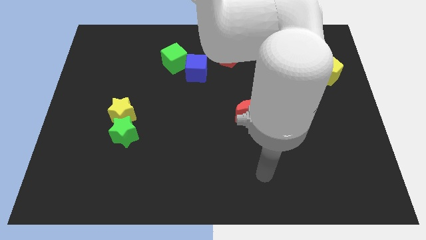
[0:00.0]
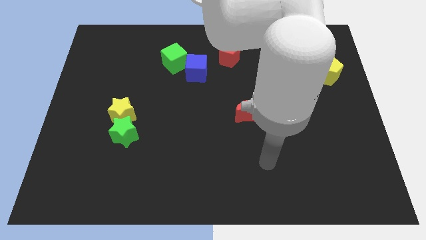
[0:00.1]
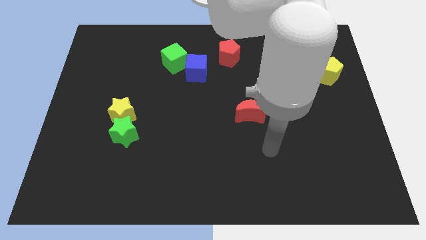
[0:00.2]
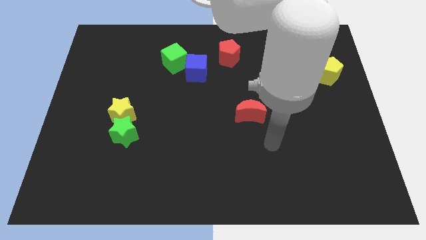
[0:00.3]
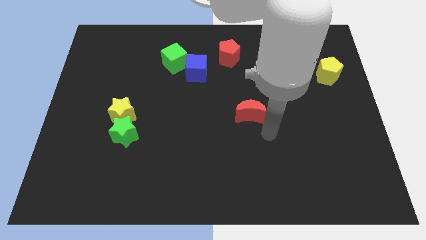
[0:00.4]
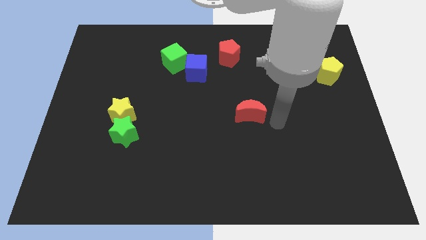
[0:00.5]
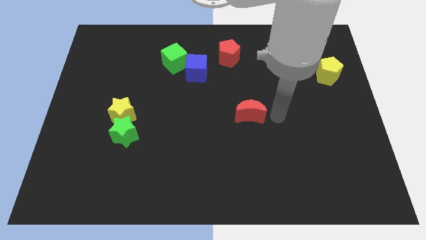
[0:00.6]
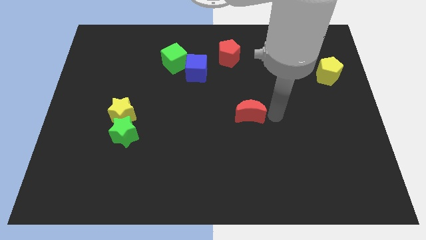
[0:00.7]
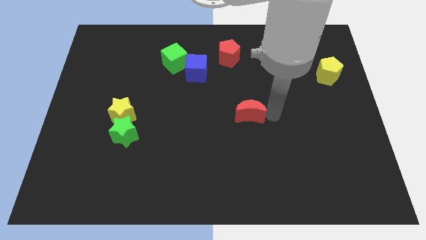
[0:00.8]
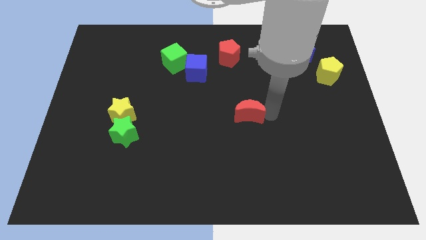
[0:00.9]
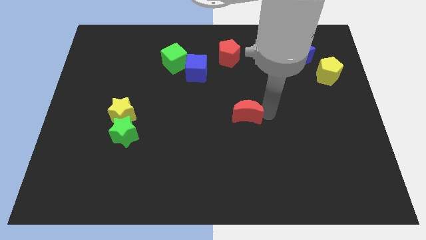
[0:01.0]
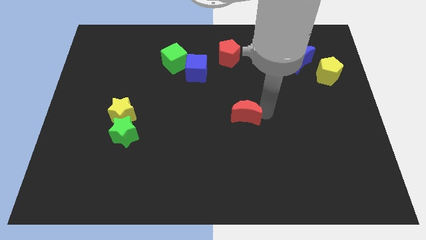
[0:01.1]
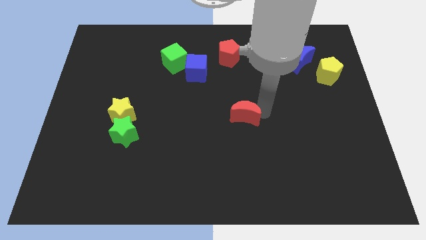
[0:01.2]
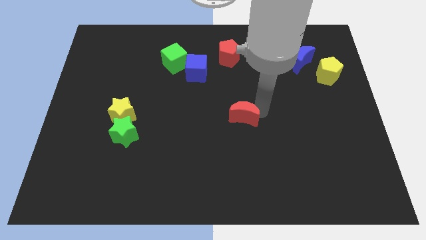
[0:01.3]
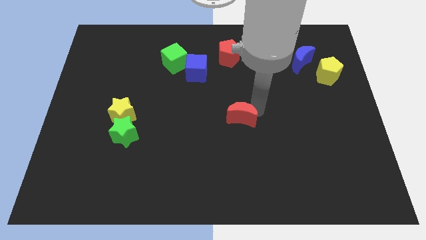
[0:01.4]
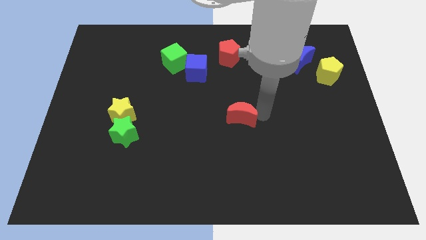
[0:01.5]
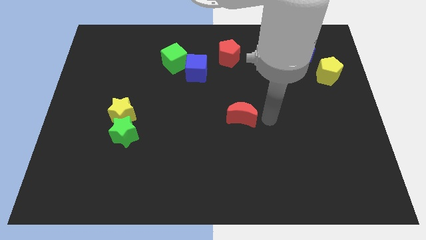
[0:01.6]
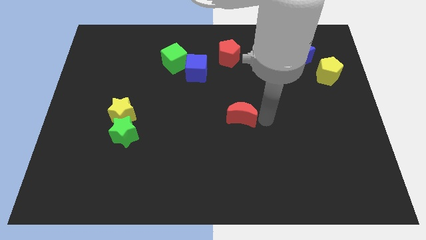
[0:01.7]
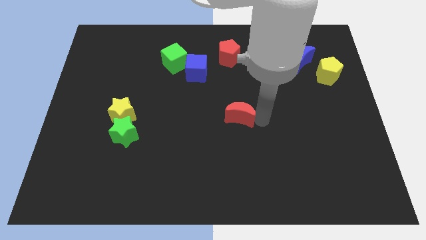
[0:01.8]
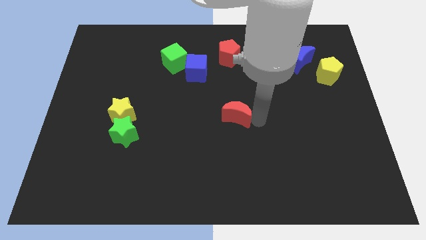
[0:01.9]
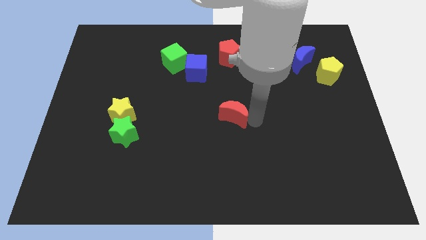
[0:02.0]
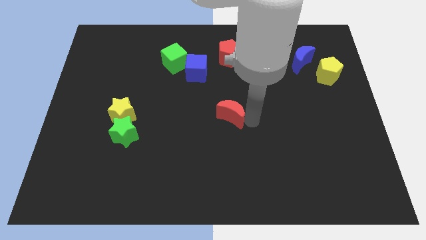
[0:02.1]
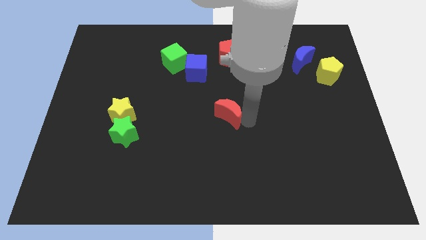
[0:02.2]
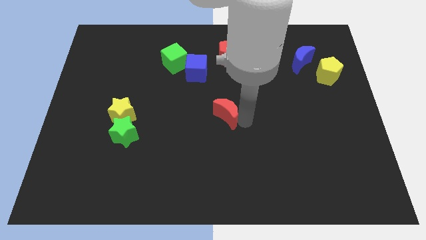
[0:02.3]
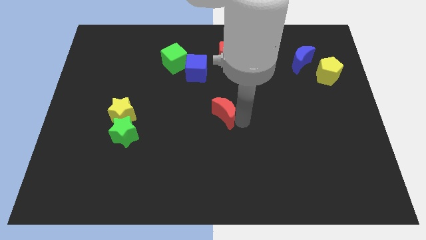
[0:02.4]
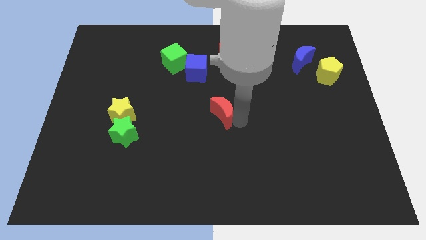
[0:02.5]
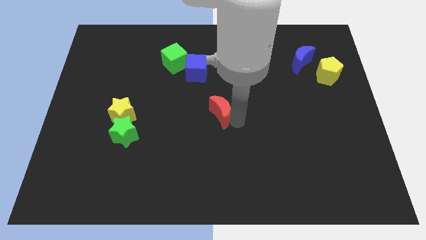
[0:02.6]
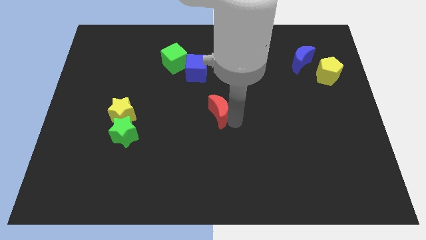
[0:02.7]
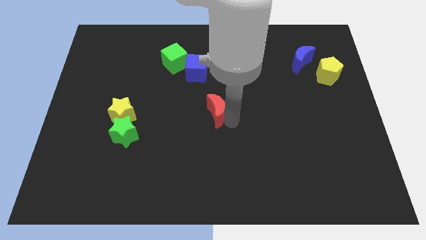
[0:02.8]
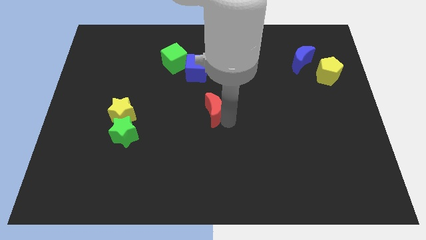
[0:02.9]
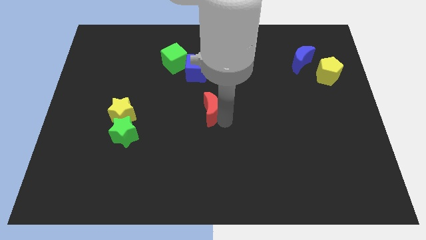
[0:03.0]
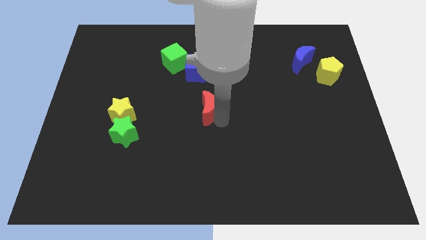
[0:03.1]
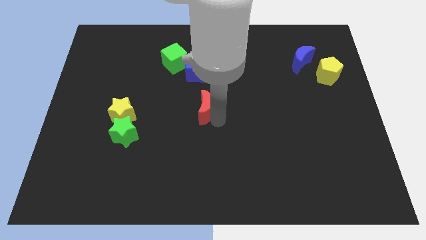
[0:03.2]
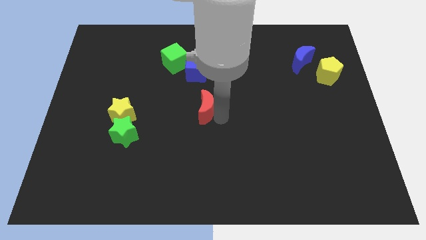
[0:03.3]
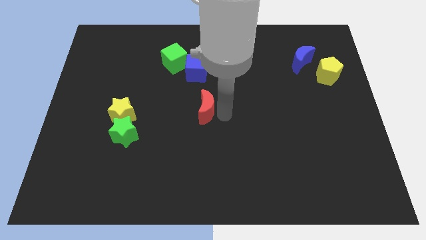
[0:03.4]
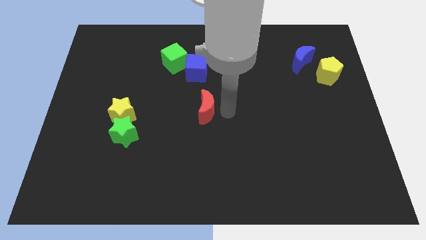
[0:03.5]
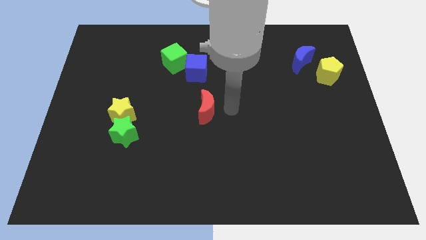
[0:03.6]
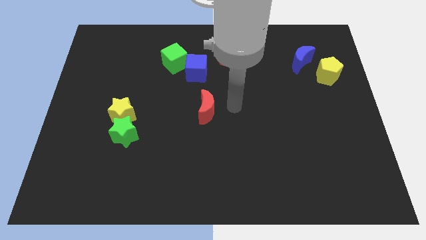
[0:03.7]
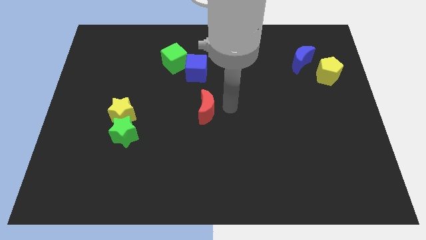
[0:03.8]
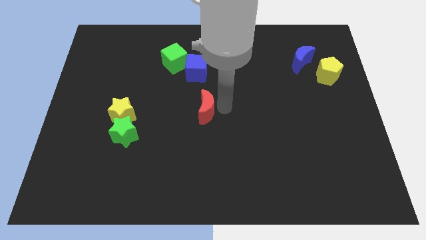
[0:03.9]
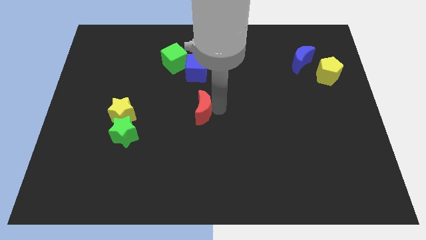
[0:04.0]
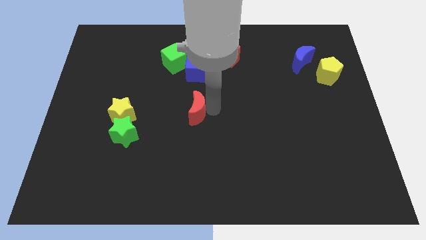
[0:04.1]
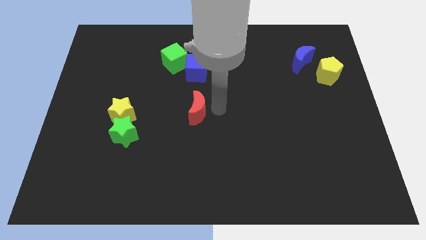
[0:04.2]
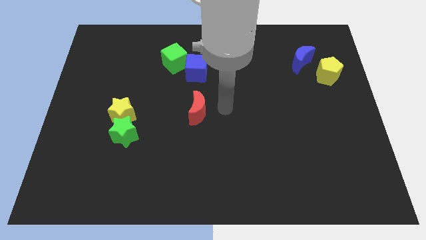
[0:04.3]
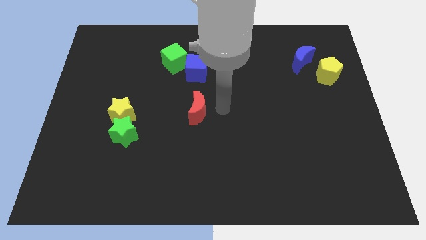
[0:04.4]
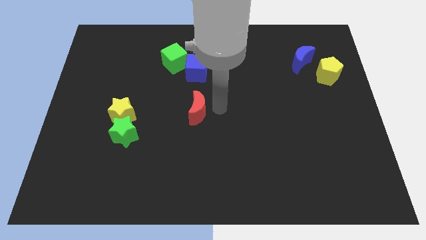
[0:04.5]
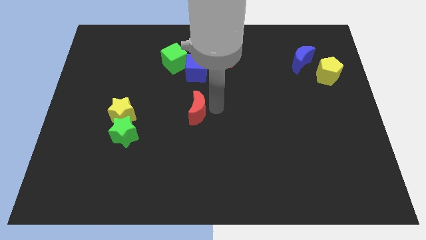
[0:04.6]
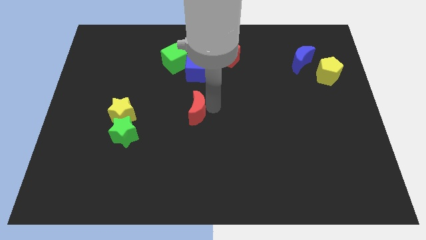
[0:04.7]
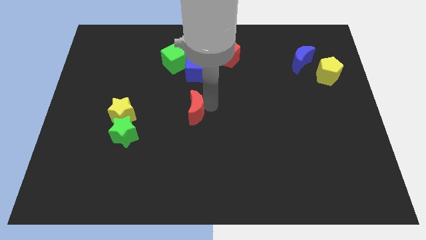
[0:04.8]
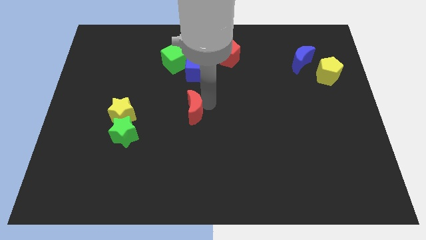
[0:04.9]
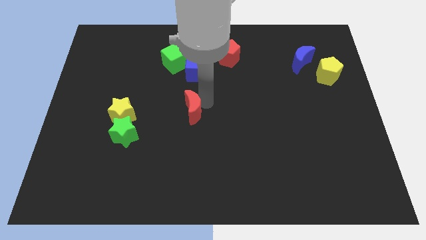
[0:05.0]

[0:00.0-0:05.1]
move the red moon right of the yellow star

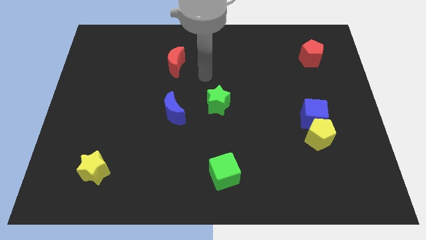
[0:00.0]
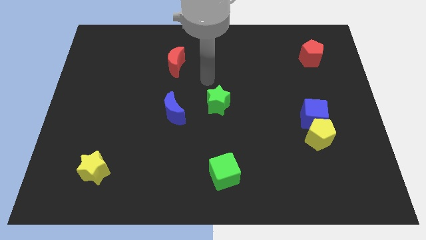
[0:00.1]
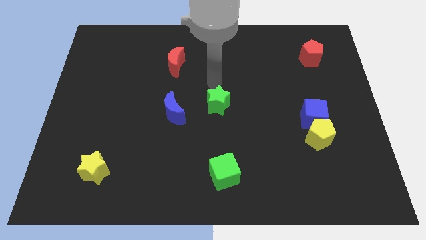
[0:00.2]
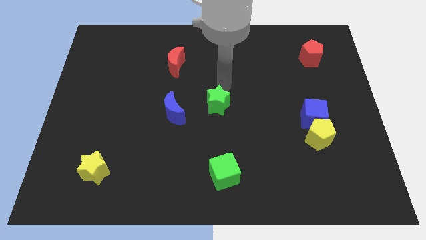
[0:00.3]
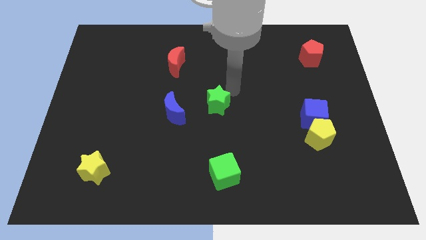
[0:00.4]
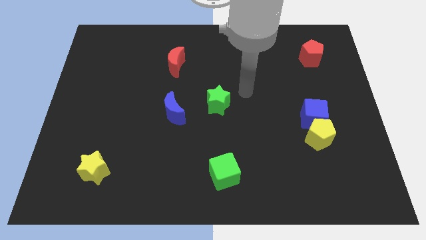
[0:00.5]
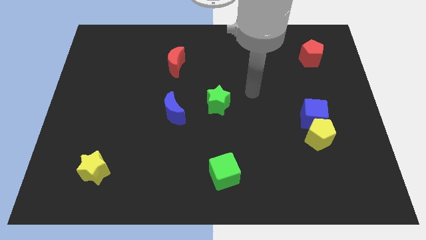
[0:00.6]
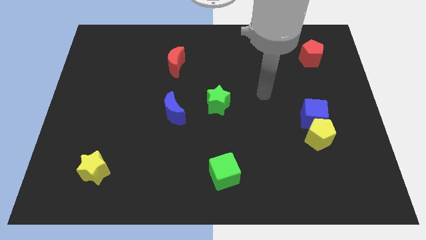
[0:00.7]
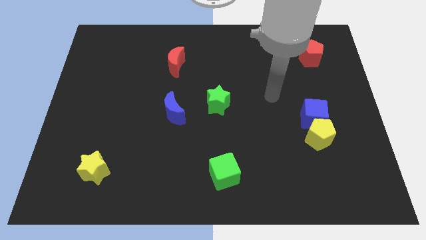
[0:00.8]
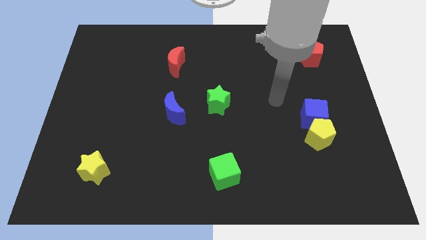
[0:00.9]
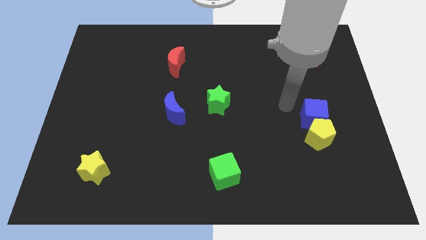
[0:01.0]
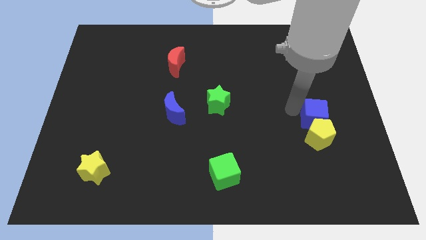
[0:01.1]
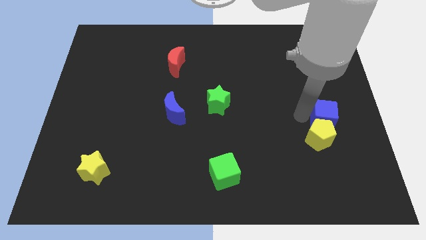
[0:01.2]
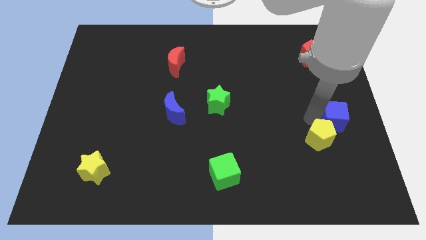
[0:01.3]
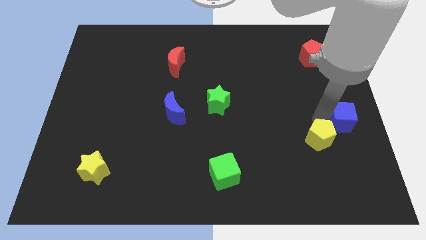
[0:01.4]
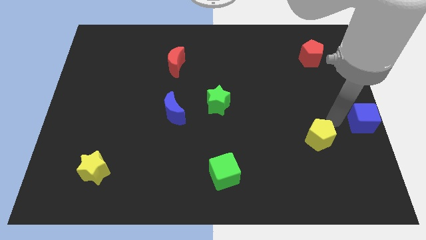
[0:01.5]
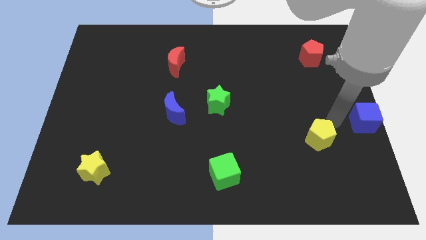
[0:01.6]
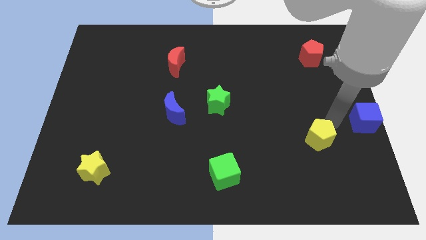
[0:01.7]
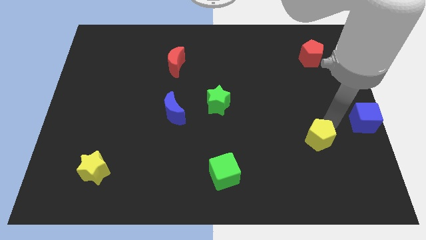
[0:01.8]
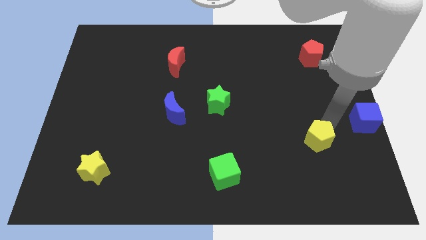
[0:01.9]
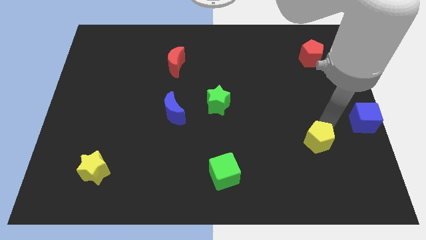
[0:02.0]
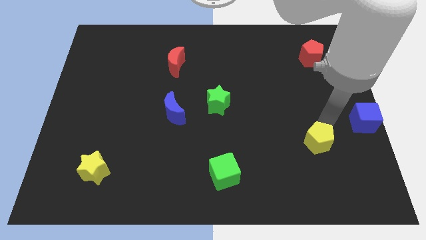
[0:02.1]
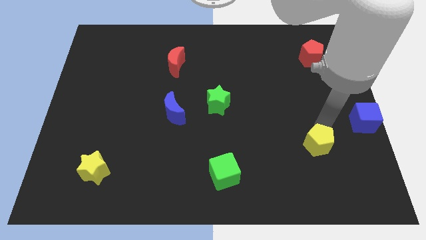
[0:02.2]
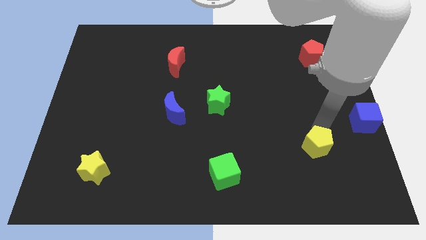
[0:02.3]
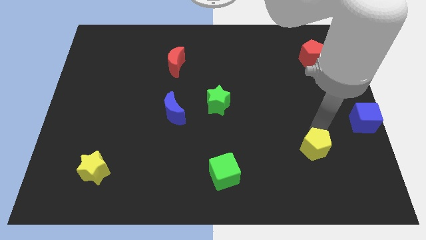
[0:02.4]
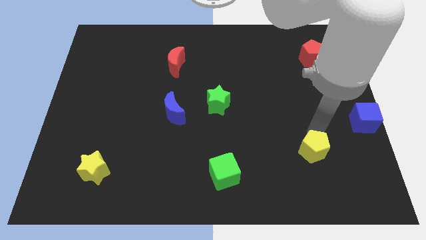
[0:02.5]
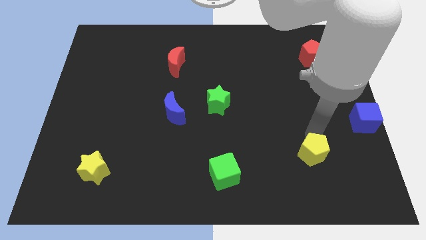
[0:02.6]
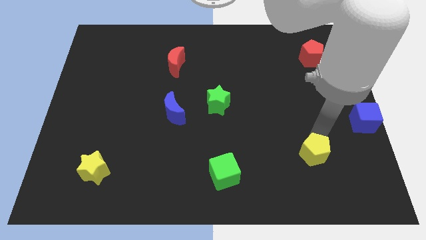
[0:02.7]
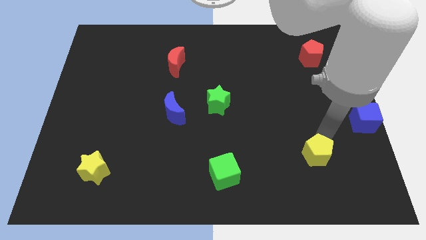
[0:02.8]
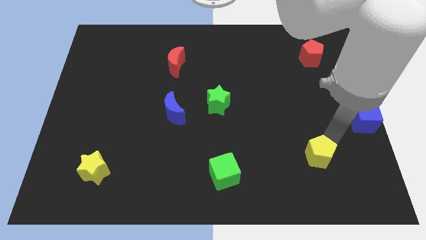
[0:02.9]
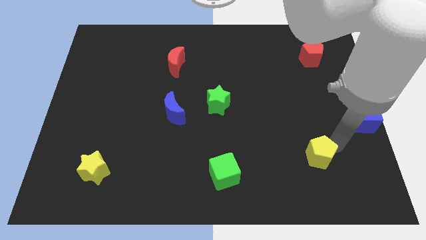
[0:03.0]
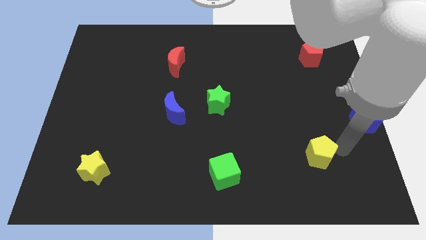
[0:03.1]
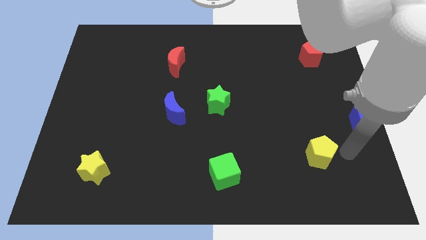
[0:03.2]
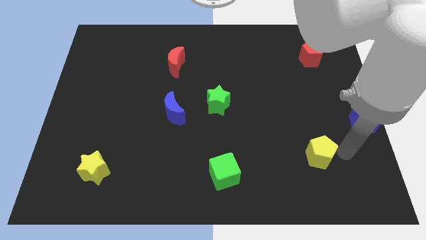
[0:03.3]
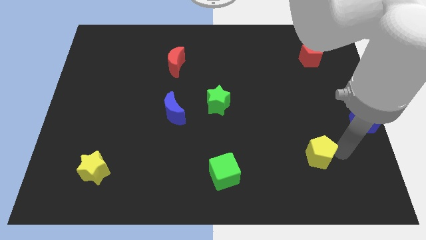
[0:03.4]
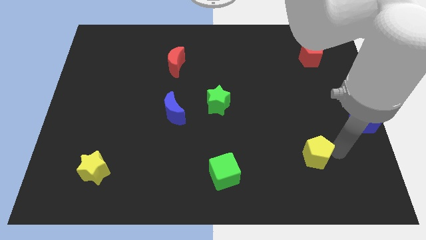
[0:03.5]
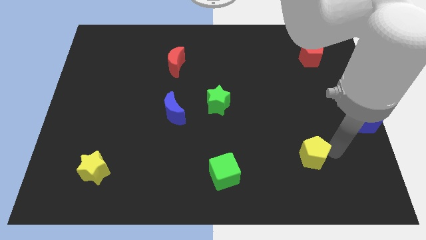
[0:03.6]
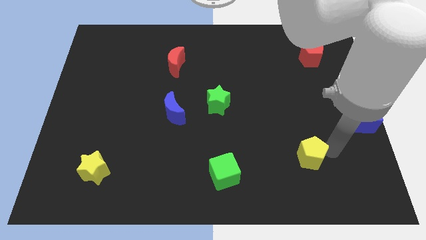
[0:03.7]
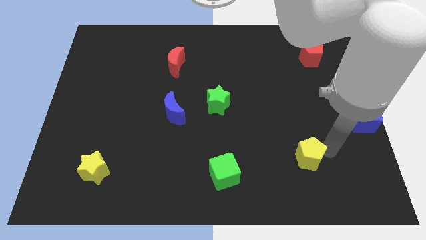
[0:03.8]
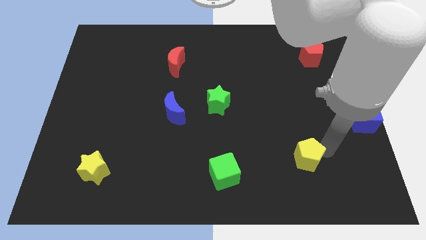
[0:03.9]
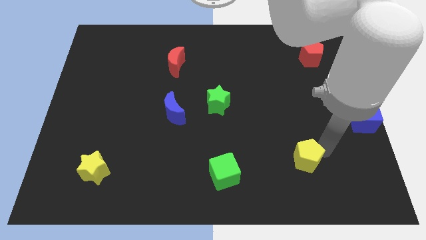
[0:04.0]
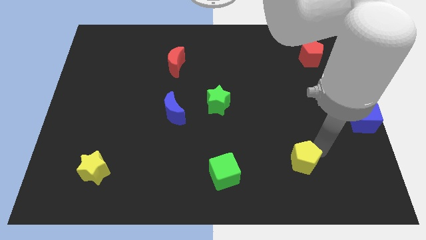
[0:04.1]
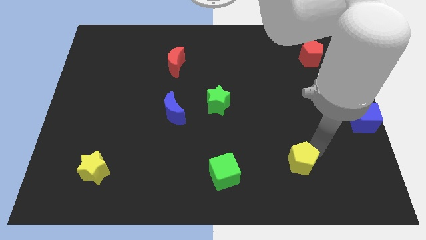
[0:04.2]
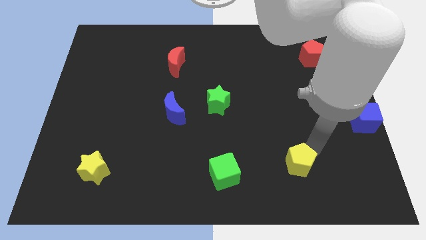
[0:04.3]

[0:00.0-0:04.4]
push the yellow pentagon right of the green cube
